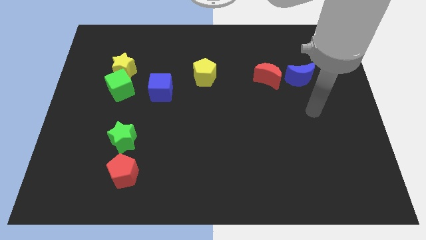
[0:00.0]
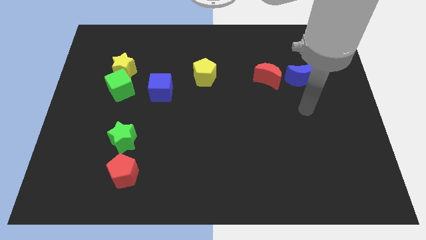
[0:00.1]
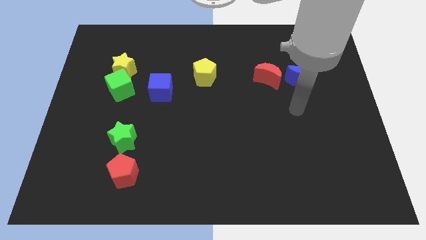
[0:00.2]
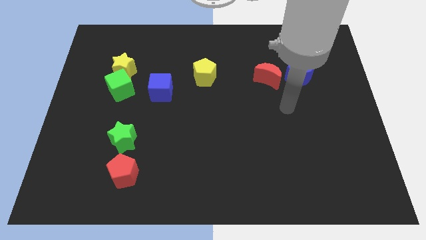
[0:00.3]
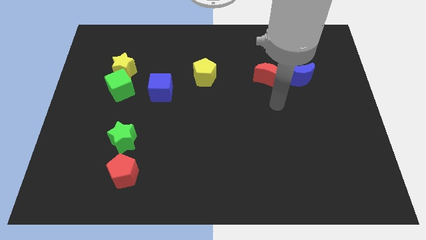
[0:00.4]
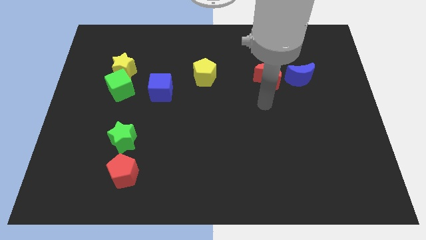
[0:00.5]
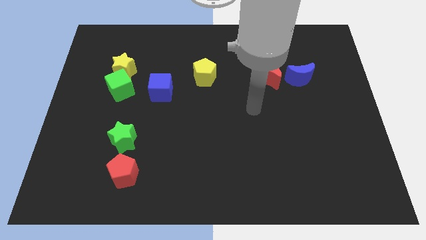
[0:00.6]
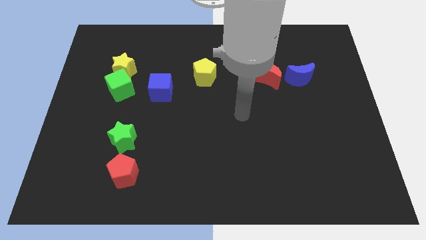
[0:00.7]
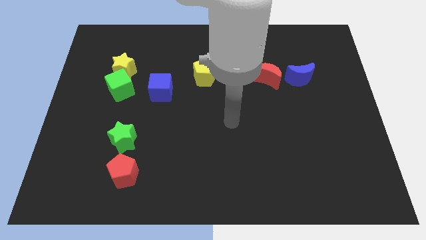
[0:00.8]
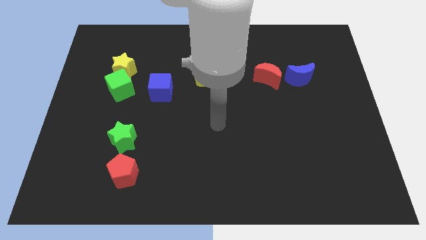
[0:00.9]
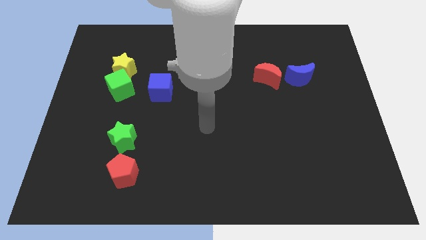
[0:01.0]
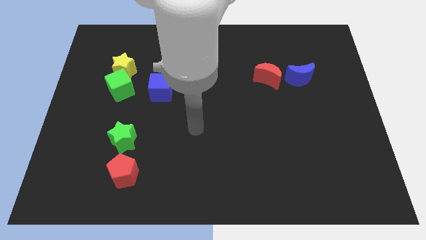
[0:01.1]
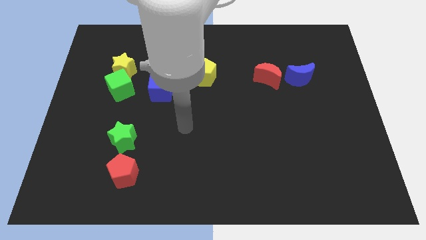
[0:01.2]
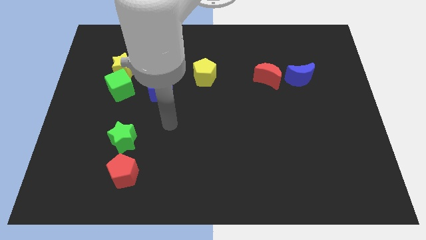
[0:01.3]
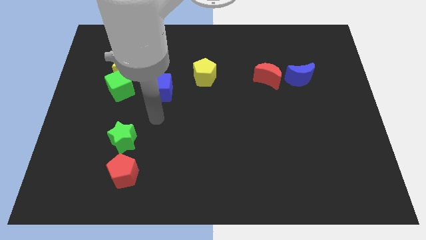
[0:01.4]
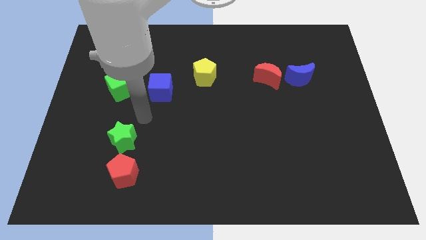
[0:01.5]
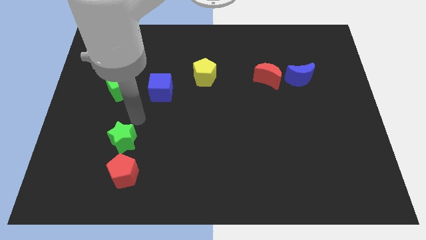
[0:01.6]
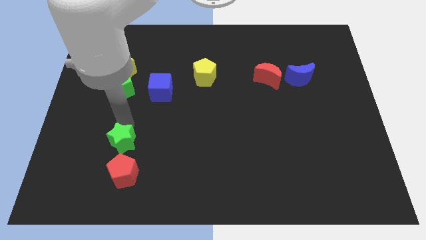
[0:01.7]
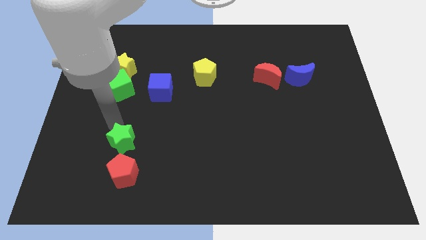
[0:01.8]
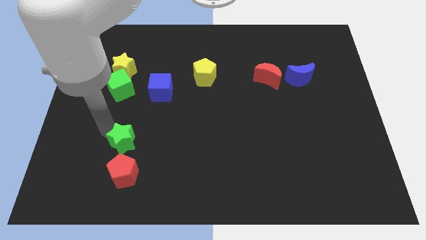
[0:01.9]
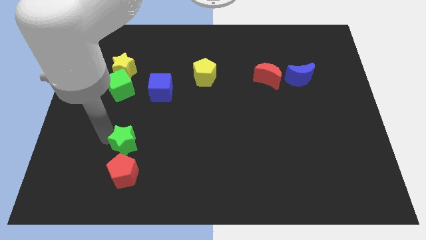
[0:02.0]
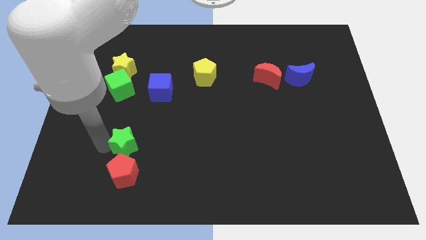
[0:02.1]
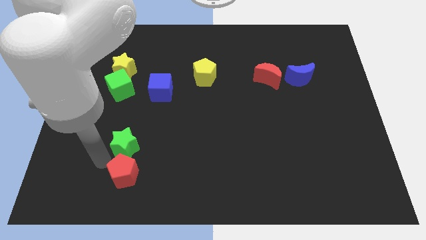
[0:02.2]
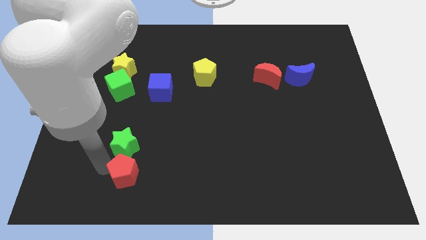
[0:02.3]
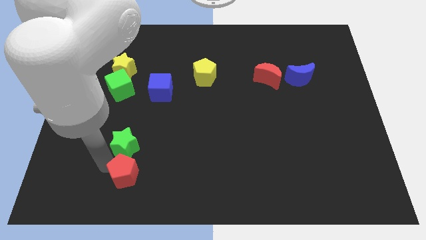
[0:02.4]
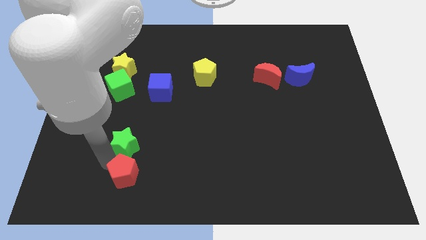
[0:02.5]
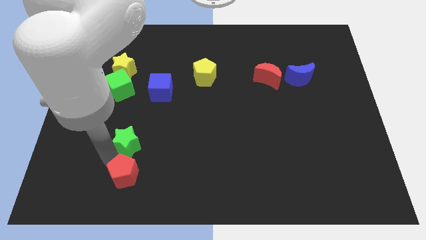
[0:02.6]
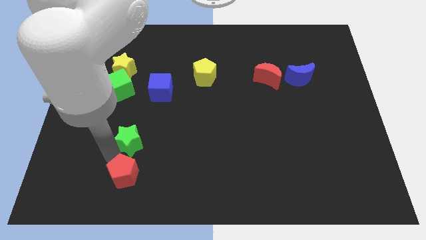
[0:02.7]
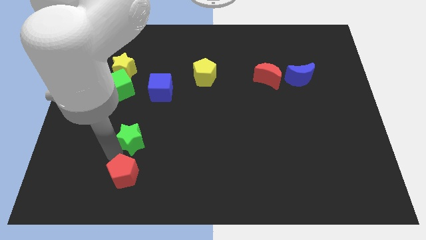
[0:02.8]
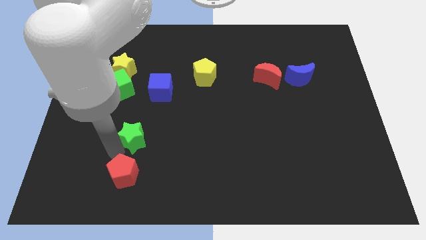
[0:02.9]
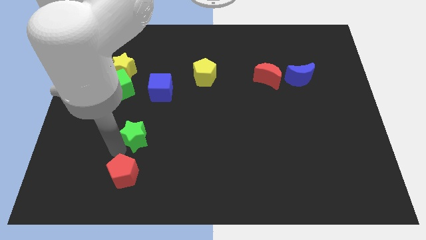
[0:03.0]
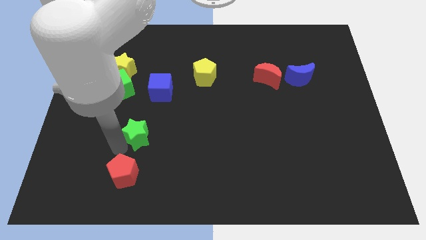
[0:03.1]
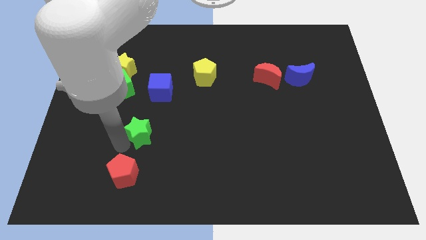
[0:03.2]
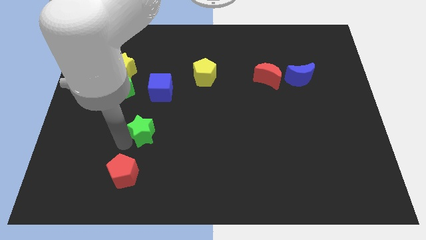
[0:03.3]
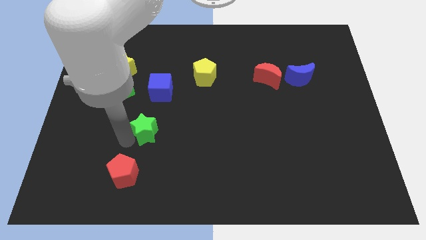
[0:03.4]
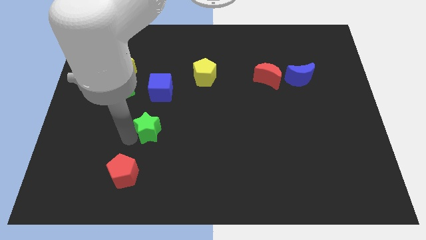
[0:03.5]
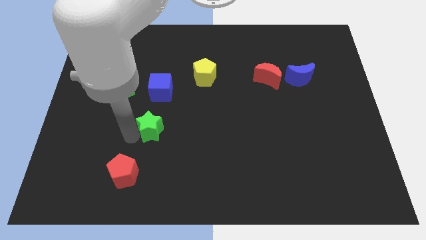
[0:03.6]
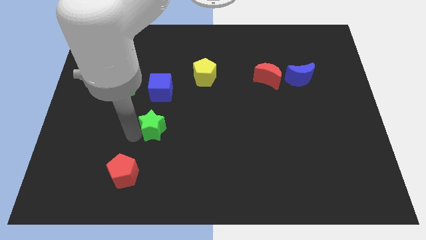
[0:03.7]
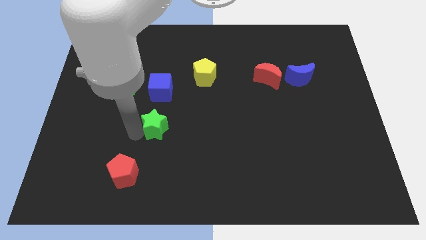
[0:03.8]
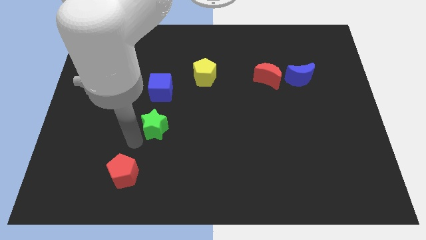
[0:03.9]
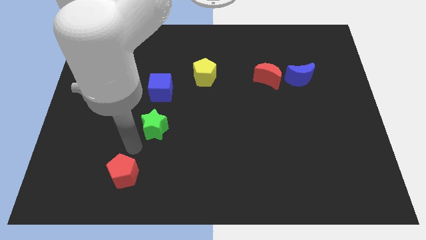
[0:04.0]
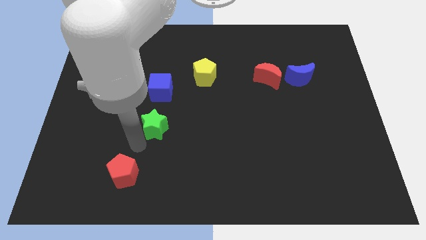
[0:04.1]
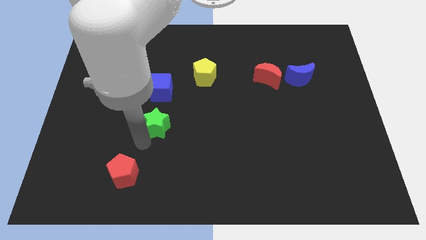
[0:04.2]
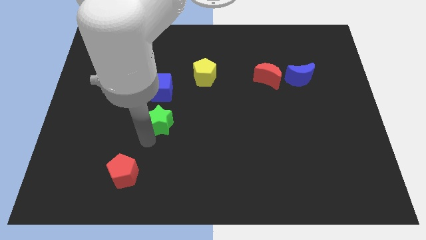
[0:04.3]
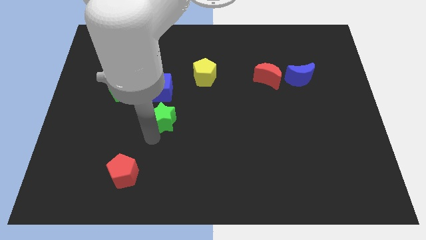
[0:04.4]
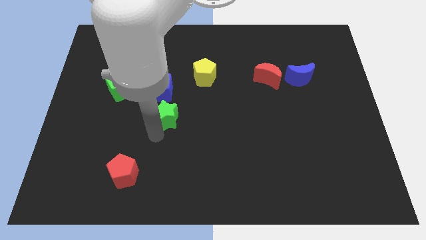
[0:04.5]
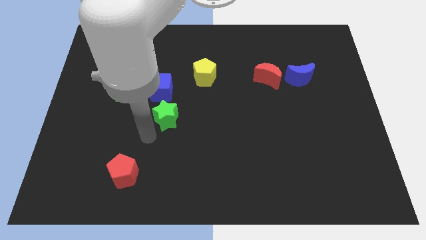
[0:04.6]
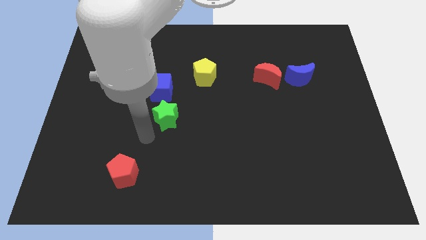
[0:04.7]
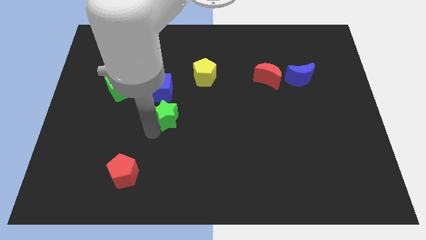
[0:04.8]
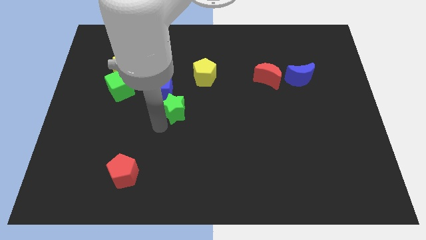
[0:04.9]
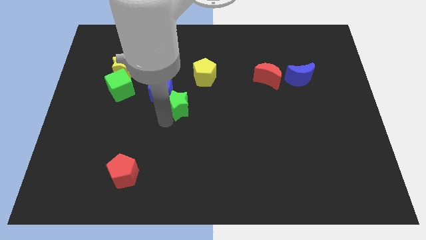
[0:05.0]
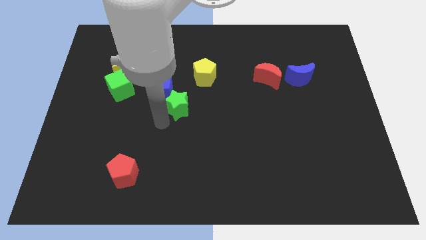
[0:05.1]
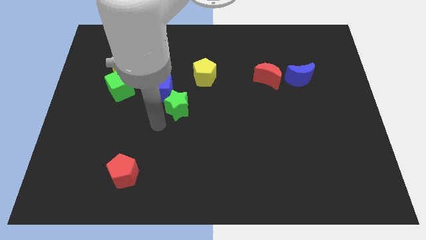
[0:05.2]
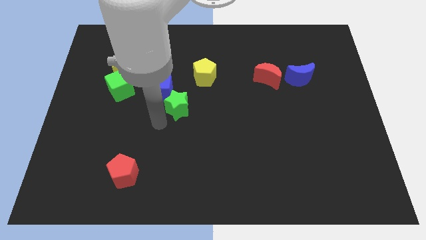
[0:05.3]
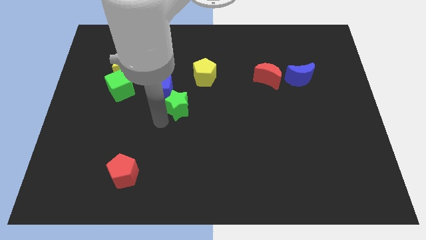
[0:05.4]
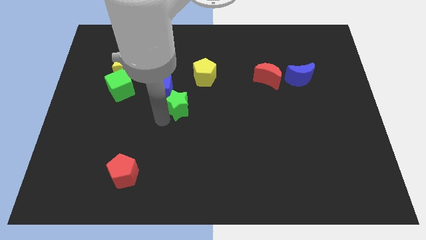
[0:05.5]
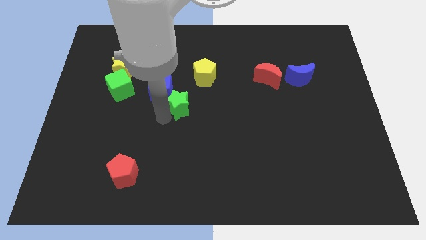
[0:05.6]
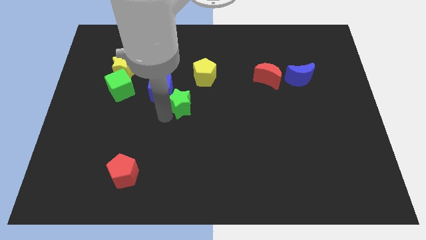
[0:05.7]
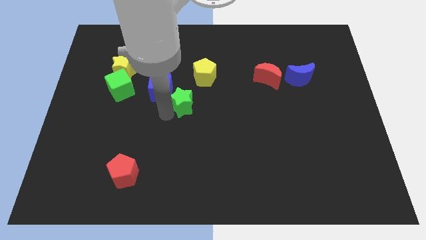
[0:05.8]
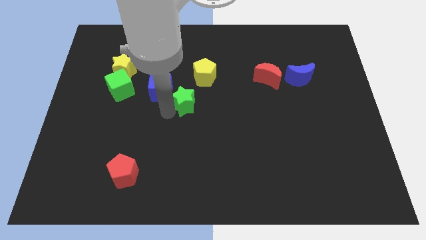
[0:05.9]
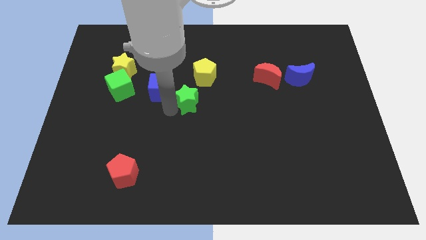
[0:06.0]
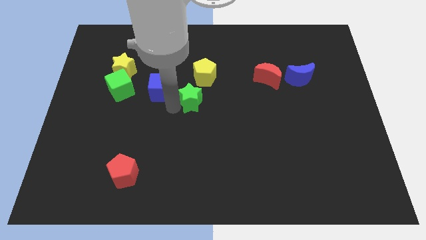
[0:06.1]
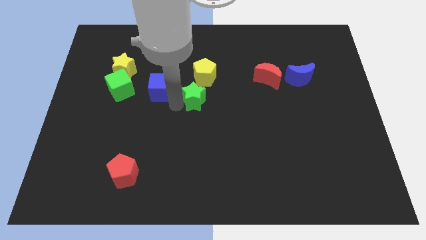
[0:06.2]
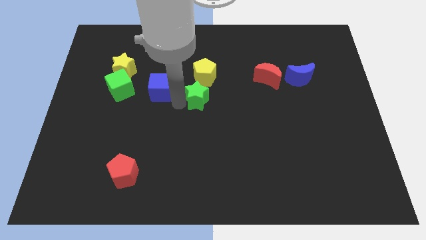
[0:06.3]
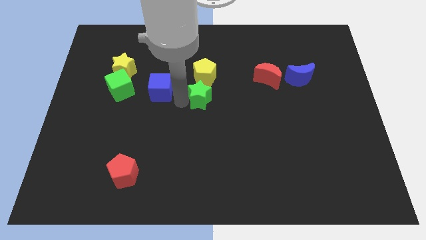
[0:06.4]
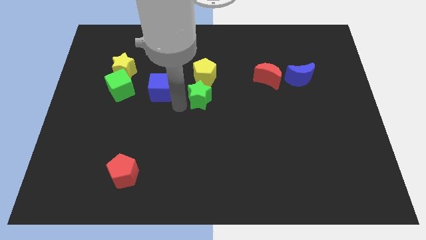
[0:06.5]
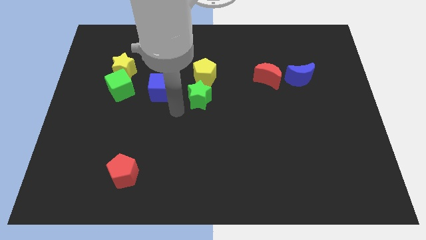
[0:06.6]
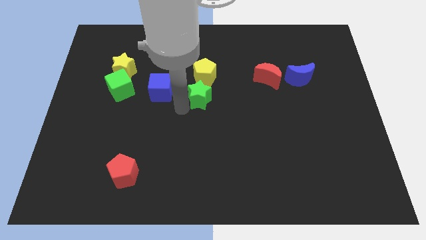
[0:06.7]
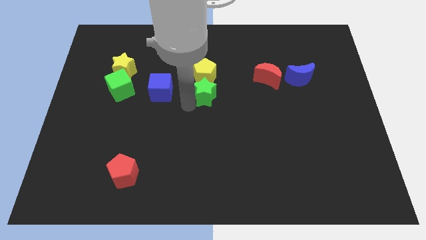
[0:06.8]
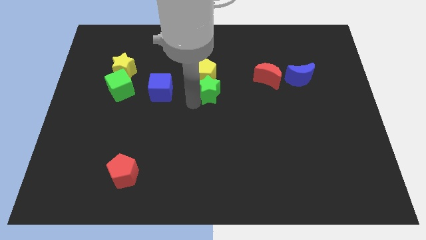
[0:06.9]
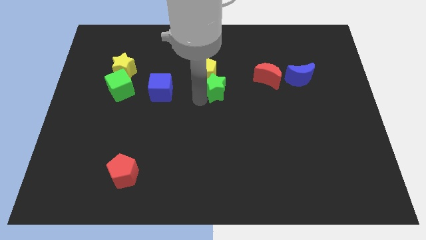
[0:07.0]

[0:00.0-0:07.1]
slide the green star just left of the red moon
